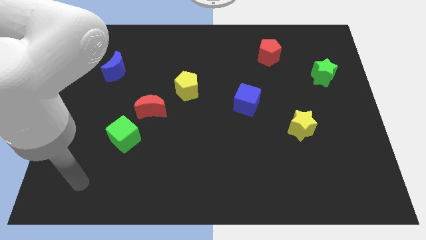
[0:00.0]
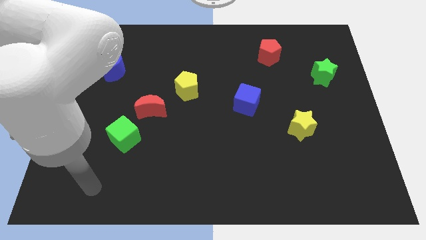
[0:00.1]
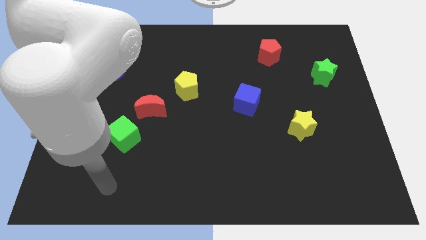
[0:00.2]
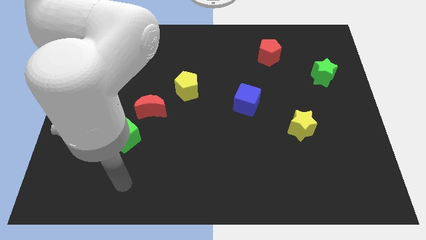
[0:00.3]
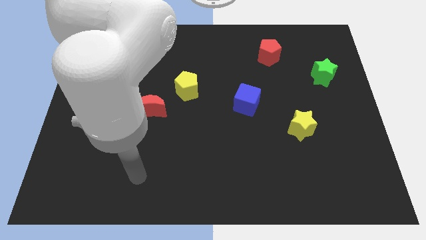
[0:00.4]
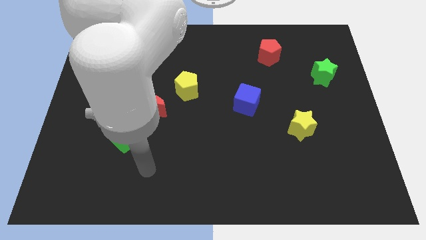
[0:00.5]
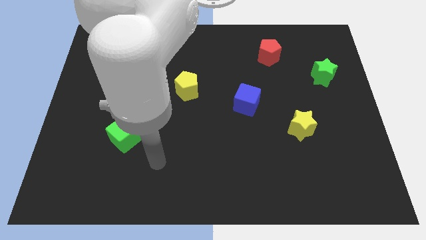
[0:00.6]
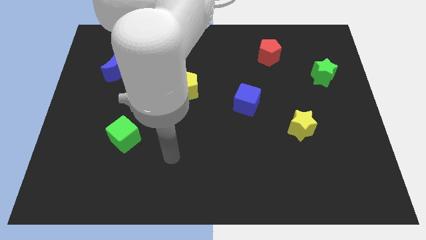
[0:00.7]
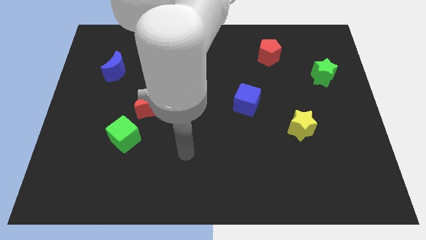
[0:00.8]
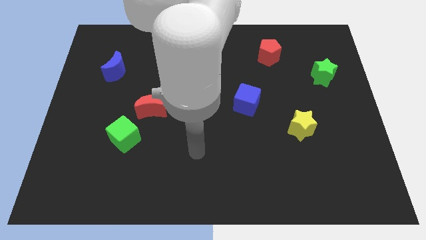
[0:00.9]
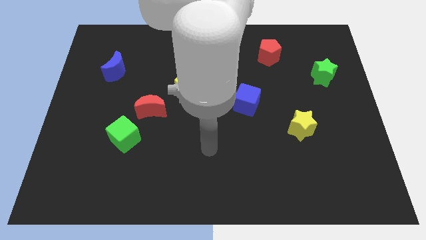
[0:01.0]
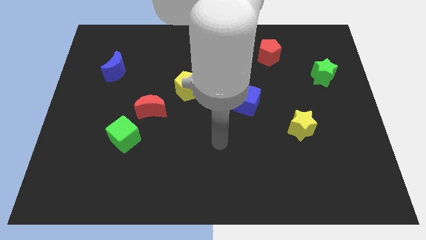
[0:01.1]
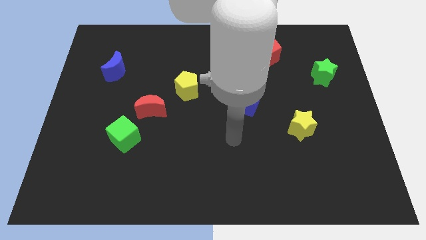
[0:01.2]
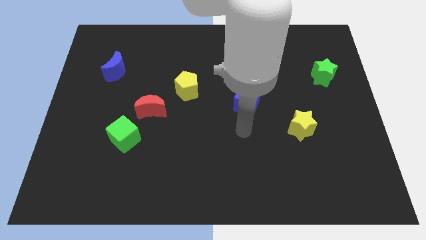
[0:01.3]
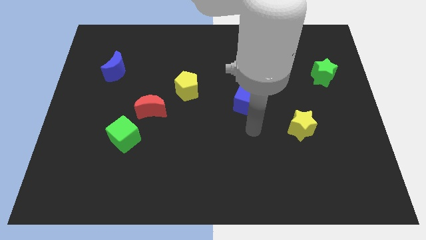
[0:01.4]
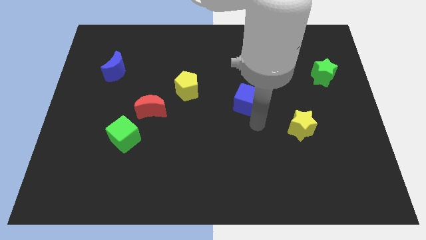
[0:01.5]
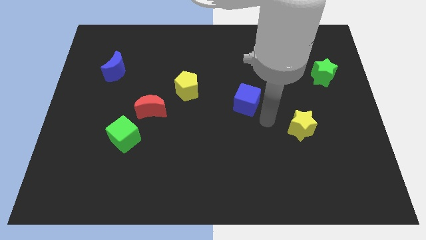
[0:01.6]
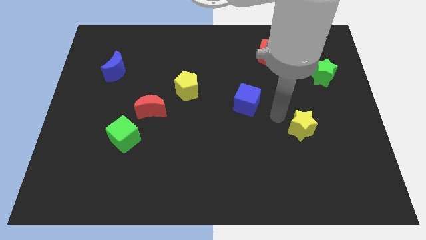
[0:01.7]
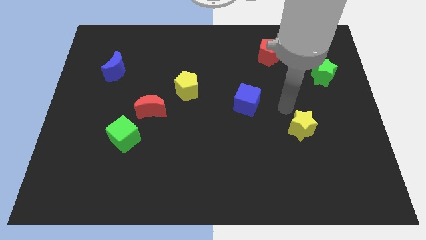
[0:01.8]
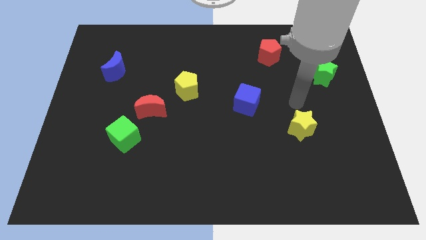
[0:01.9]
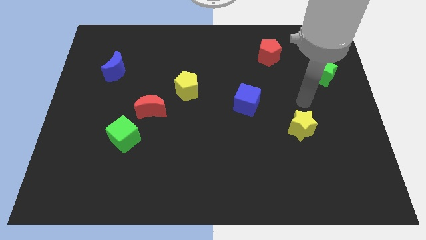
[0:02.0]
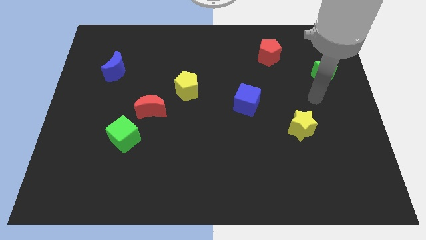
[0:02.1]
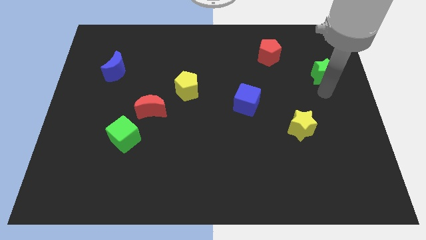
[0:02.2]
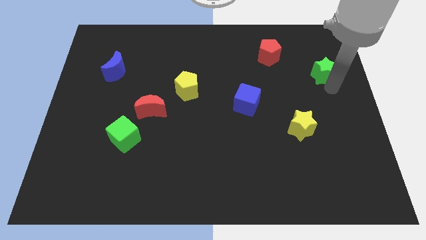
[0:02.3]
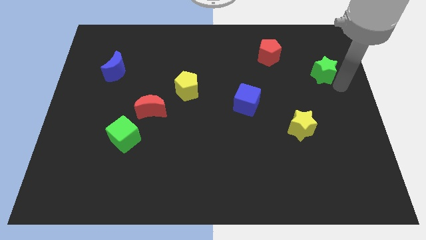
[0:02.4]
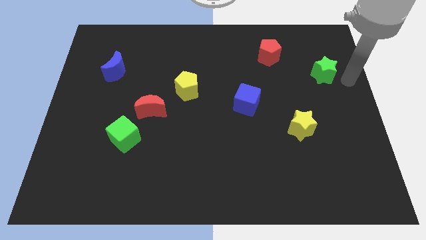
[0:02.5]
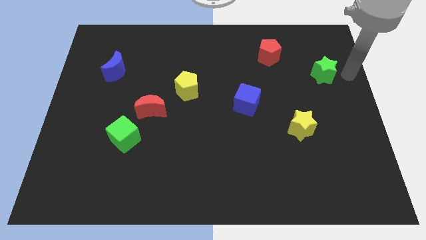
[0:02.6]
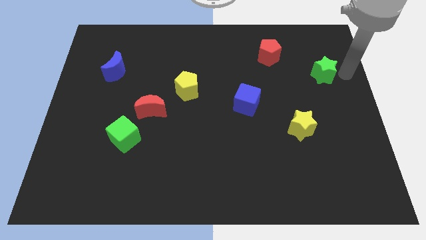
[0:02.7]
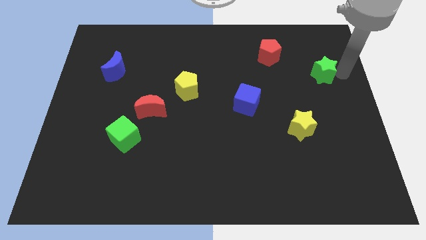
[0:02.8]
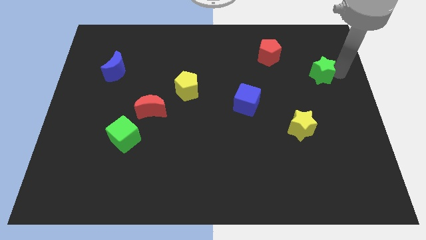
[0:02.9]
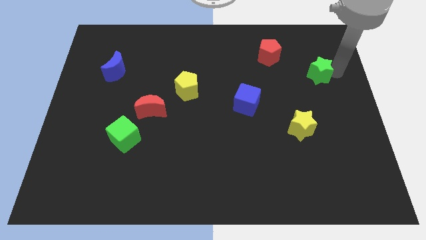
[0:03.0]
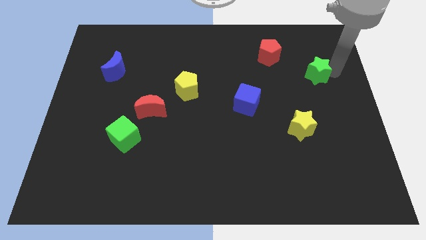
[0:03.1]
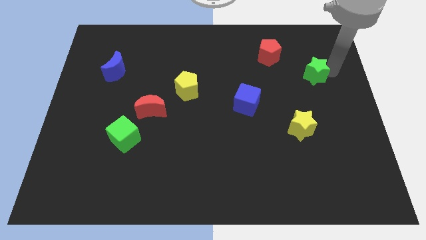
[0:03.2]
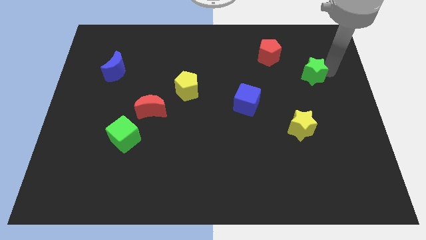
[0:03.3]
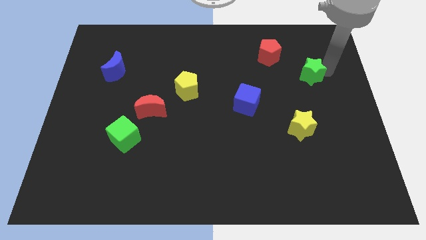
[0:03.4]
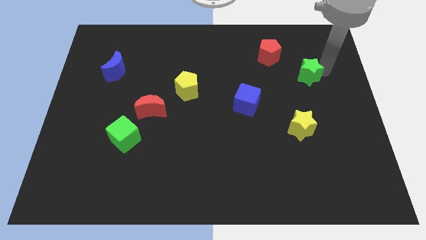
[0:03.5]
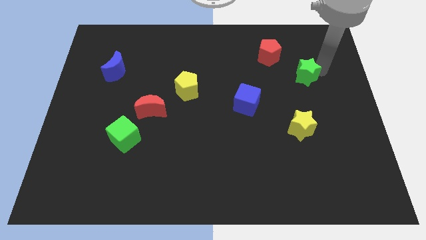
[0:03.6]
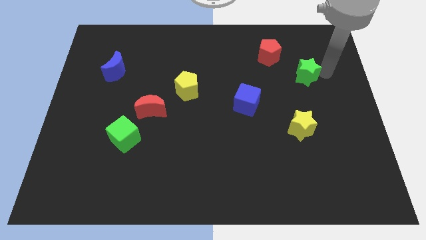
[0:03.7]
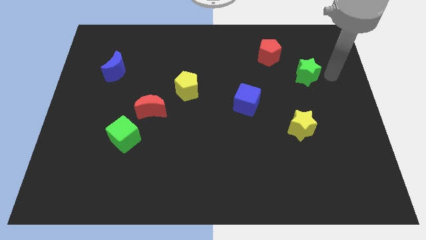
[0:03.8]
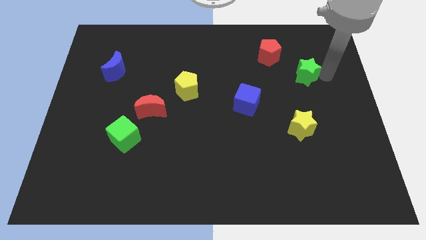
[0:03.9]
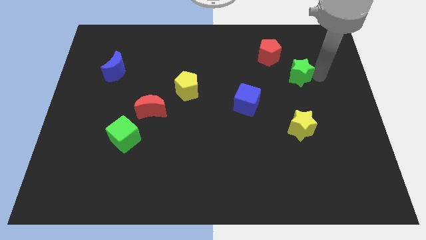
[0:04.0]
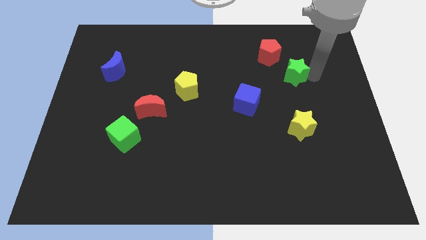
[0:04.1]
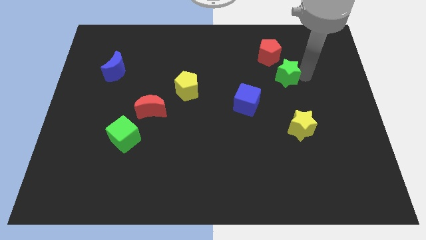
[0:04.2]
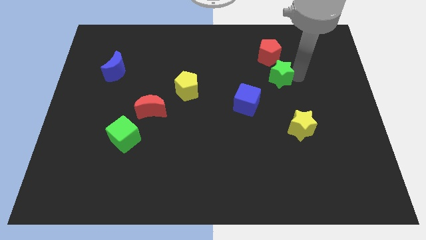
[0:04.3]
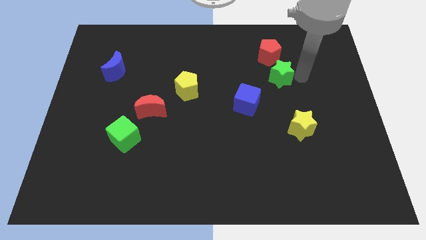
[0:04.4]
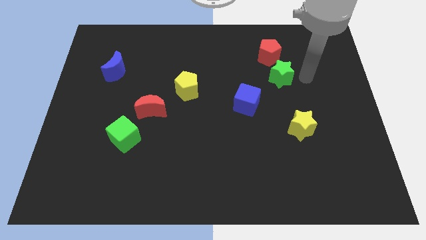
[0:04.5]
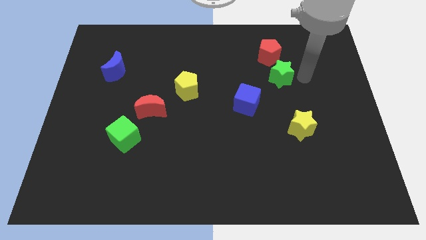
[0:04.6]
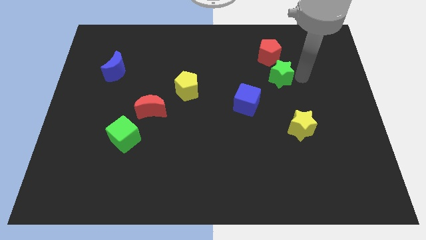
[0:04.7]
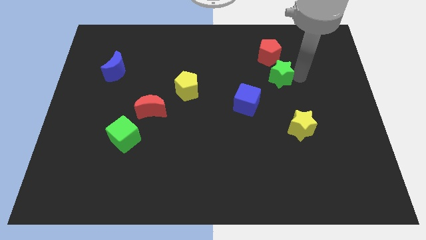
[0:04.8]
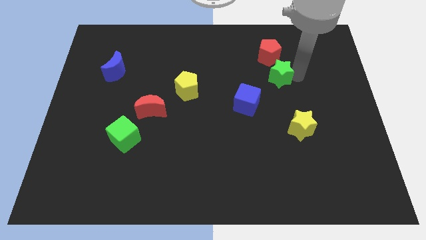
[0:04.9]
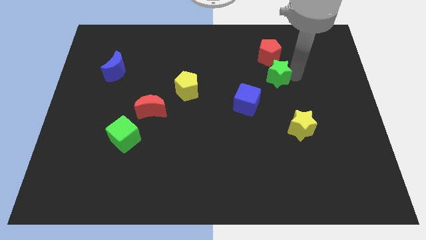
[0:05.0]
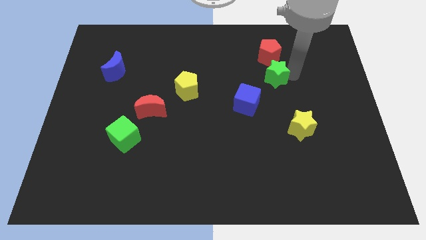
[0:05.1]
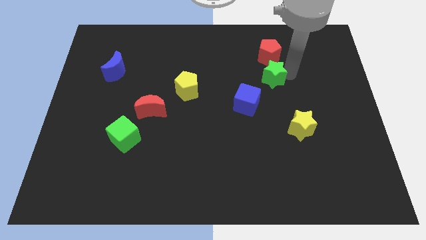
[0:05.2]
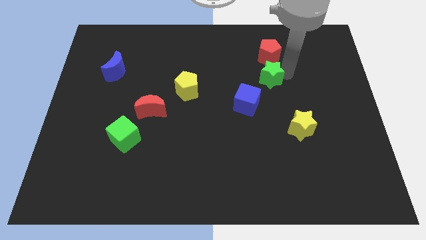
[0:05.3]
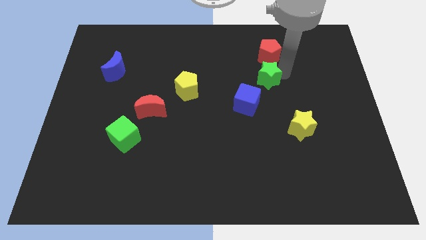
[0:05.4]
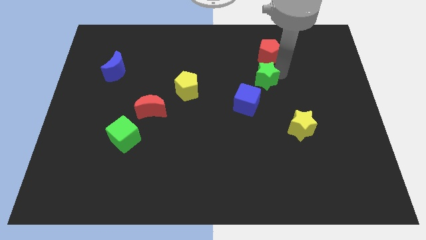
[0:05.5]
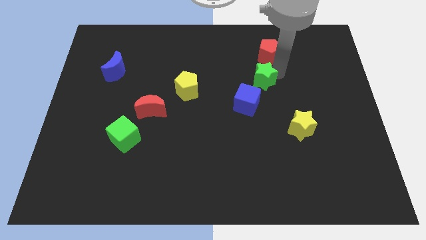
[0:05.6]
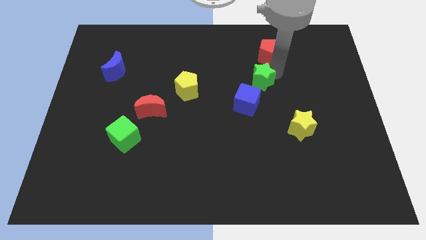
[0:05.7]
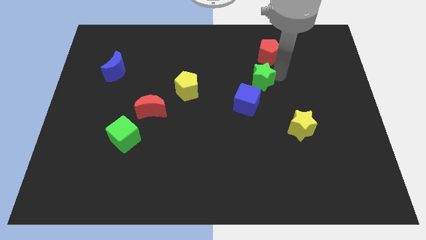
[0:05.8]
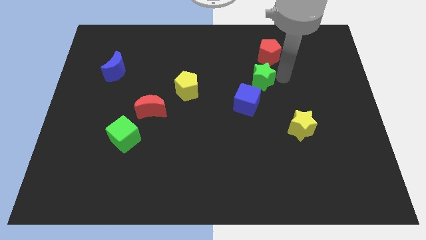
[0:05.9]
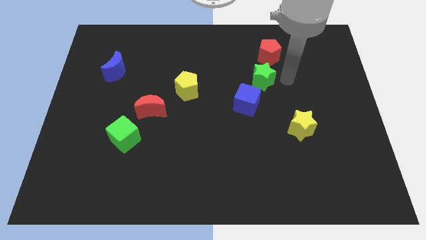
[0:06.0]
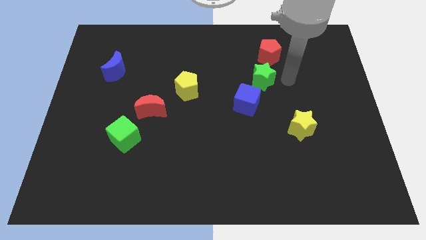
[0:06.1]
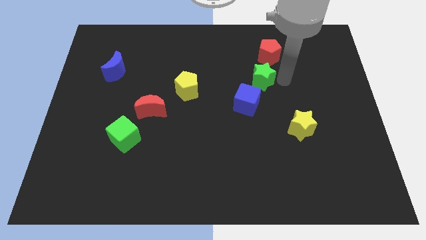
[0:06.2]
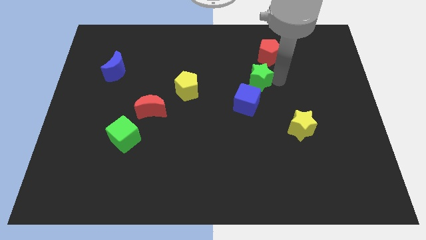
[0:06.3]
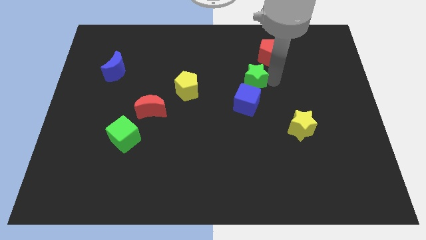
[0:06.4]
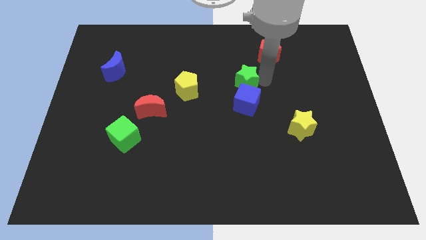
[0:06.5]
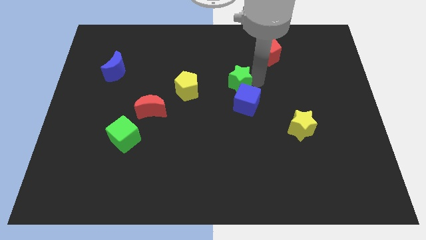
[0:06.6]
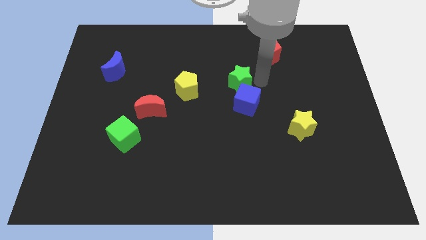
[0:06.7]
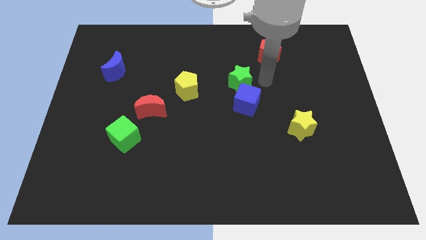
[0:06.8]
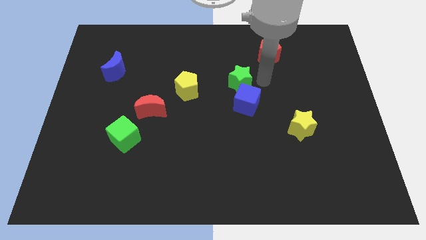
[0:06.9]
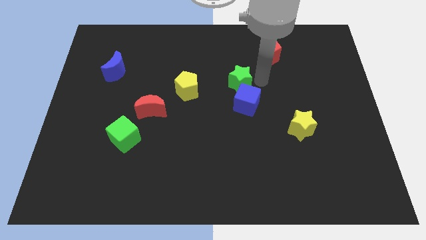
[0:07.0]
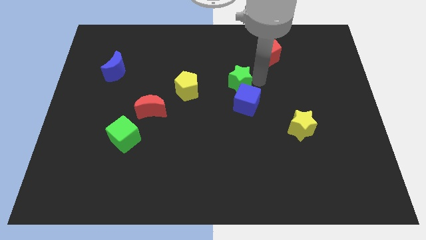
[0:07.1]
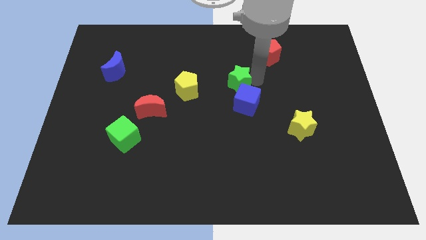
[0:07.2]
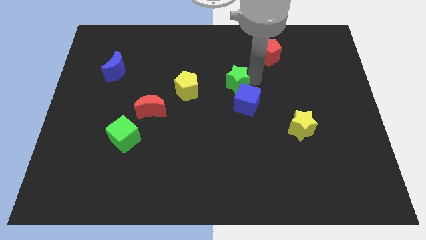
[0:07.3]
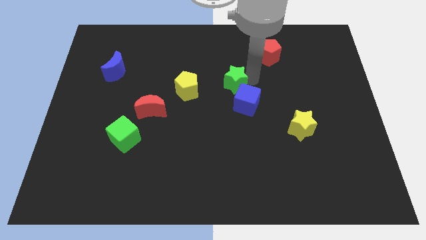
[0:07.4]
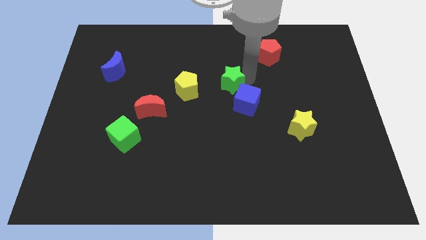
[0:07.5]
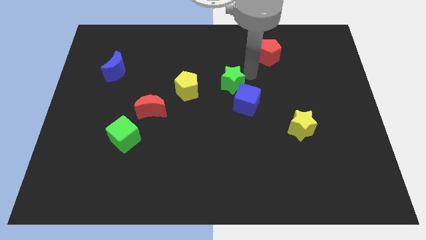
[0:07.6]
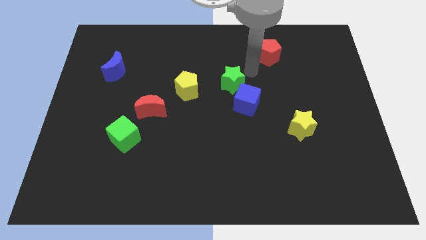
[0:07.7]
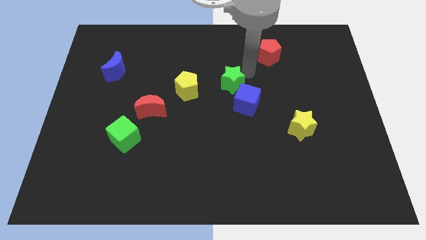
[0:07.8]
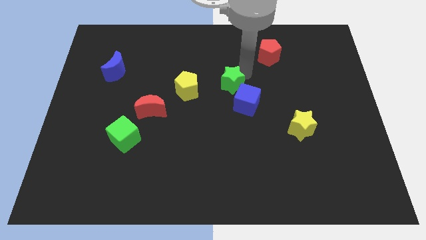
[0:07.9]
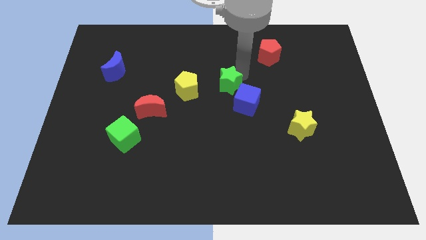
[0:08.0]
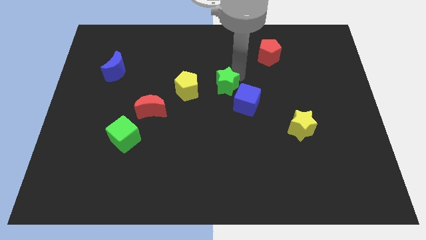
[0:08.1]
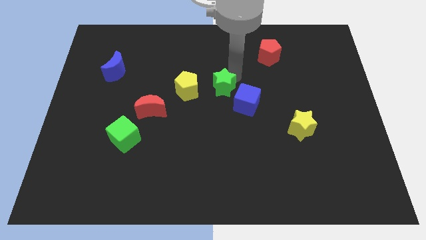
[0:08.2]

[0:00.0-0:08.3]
put the green star just left of the blue cube
